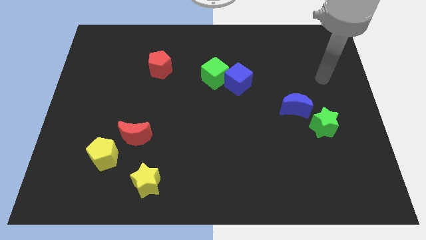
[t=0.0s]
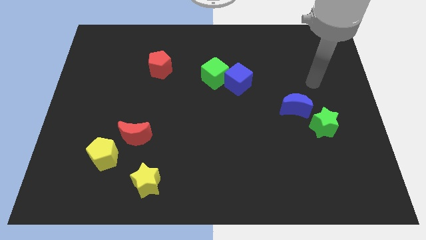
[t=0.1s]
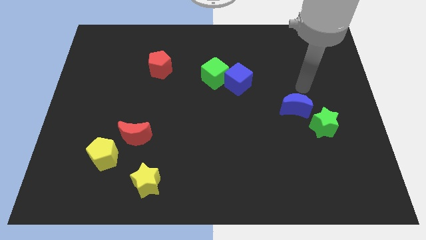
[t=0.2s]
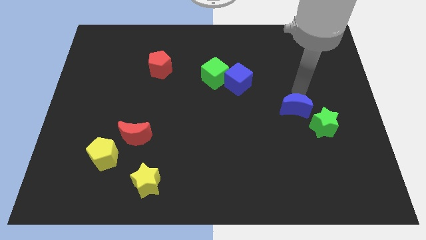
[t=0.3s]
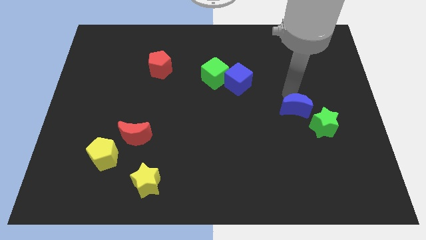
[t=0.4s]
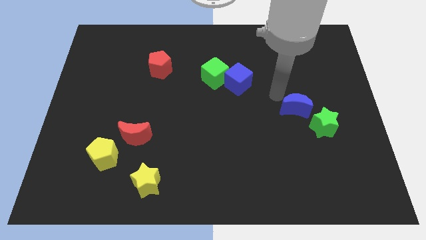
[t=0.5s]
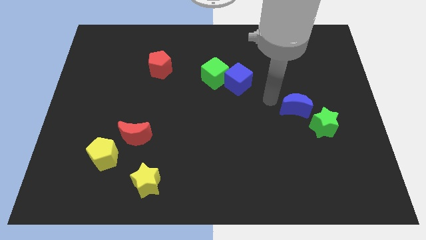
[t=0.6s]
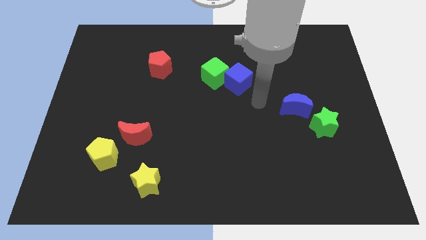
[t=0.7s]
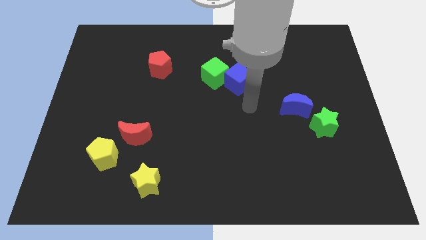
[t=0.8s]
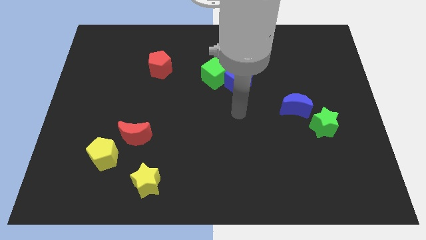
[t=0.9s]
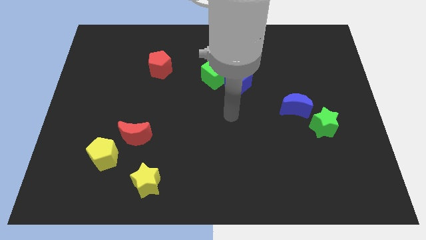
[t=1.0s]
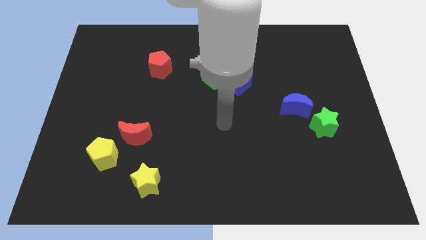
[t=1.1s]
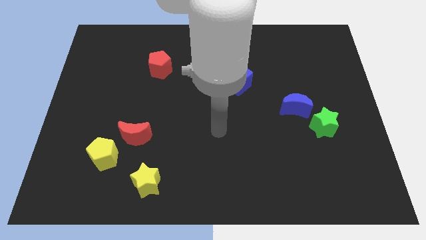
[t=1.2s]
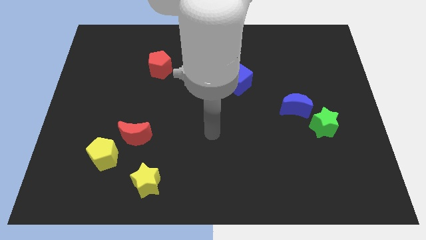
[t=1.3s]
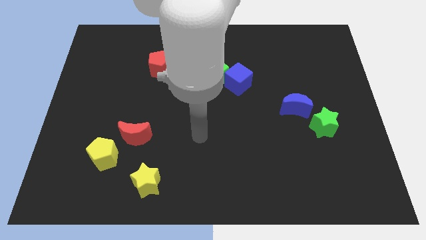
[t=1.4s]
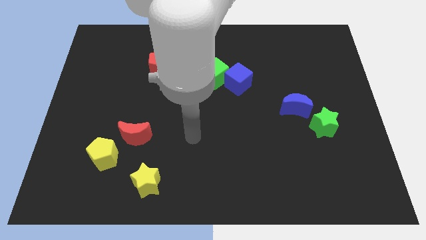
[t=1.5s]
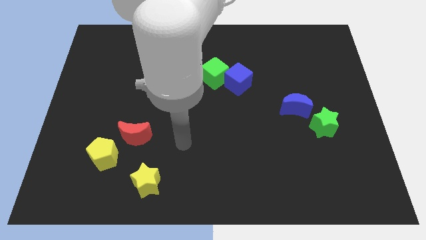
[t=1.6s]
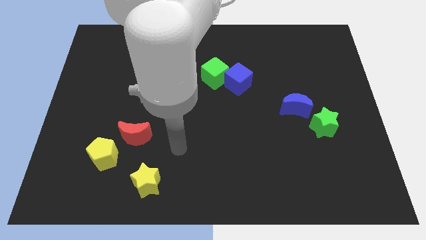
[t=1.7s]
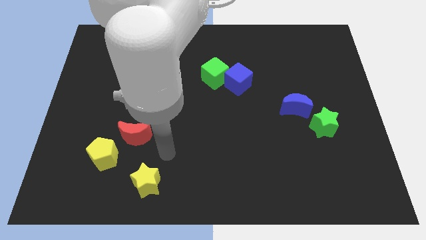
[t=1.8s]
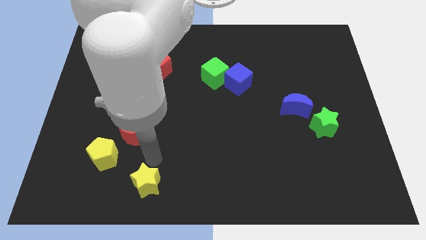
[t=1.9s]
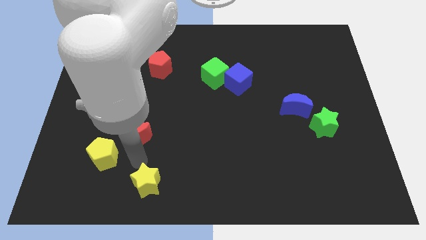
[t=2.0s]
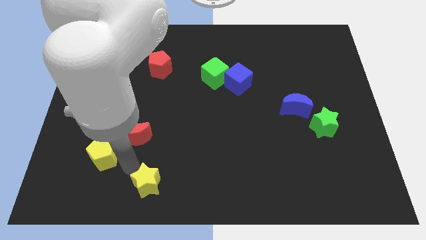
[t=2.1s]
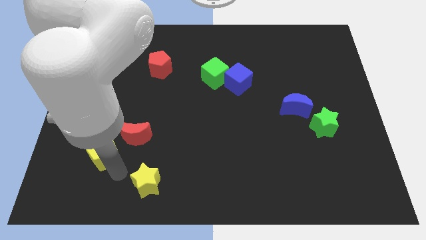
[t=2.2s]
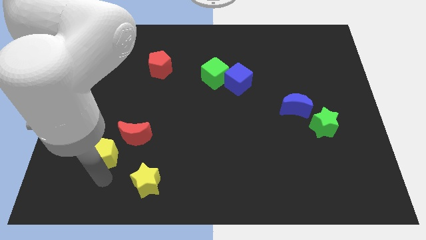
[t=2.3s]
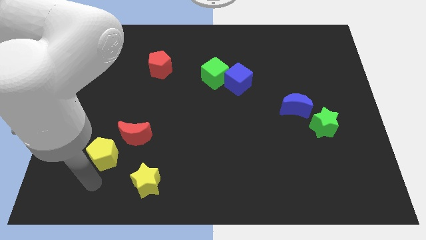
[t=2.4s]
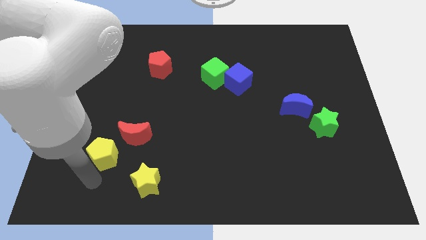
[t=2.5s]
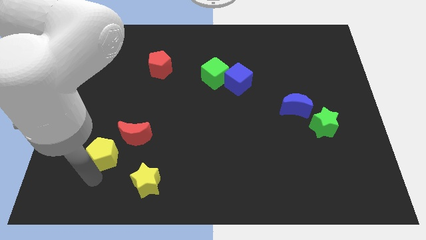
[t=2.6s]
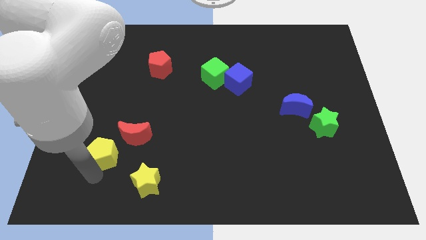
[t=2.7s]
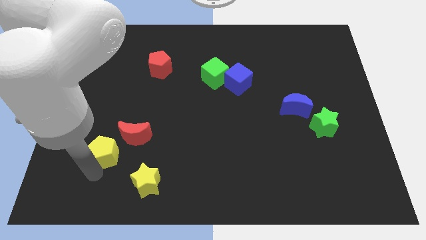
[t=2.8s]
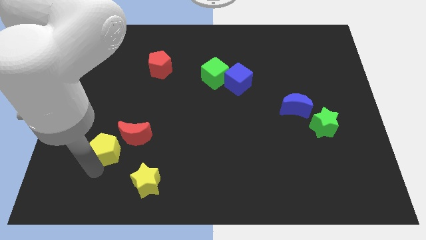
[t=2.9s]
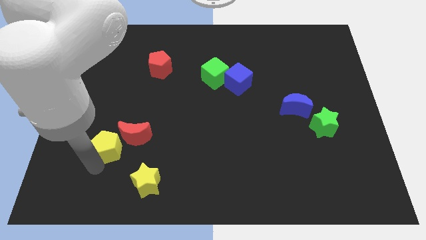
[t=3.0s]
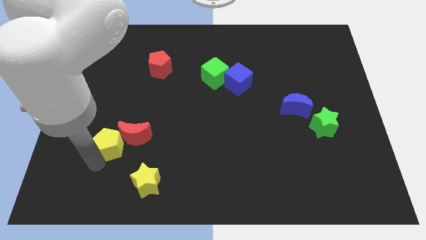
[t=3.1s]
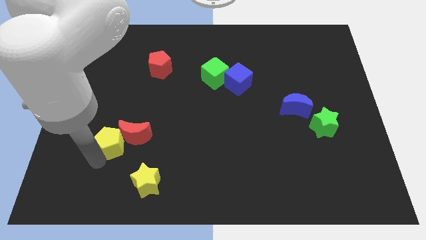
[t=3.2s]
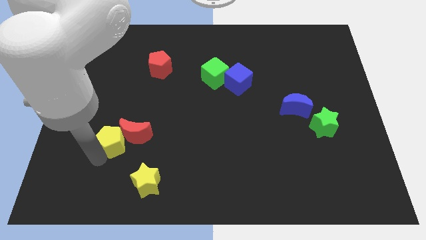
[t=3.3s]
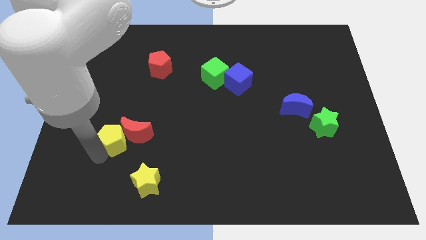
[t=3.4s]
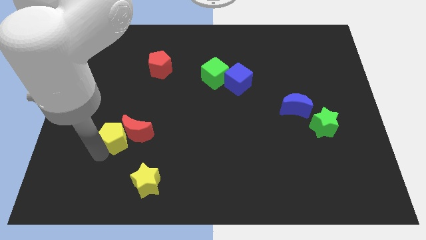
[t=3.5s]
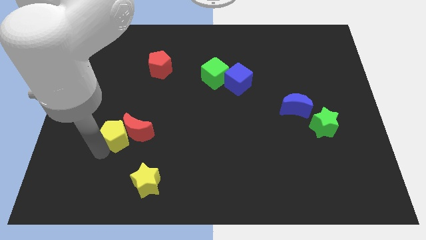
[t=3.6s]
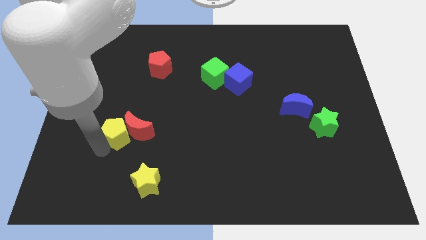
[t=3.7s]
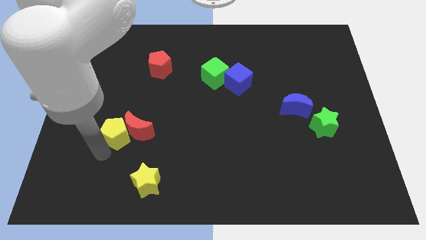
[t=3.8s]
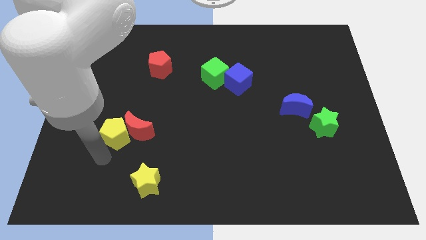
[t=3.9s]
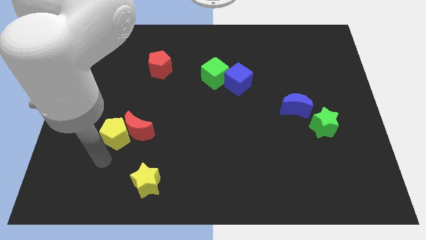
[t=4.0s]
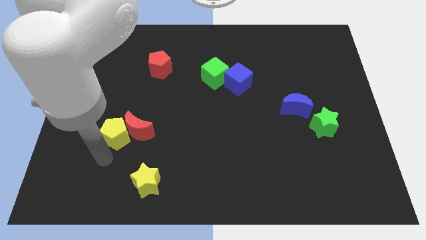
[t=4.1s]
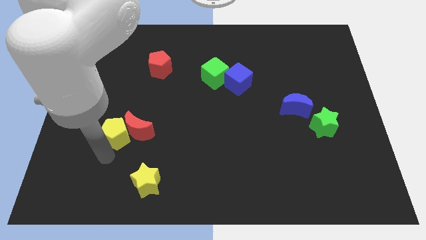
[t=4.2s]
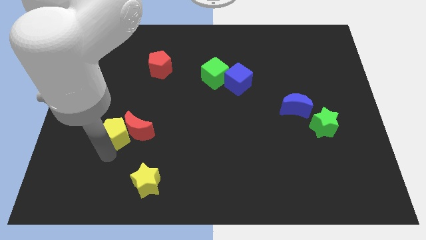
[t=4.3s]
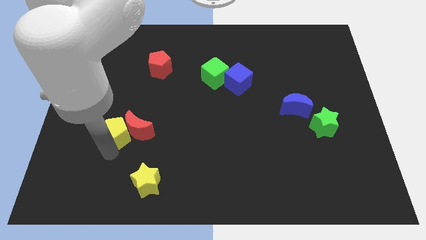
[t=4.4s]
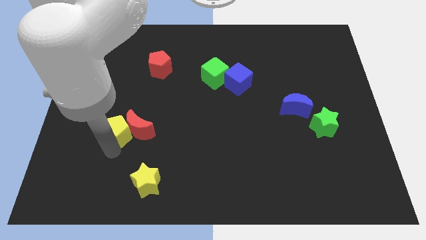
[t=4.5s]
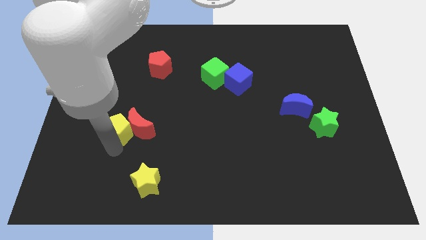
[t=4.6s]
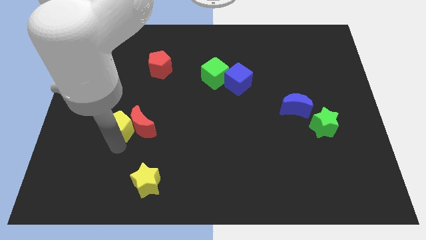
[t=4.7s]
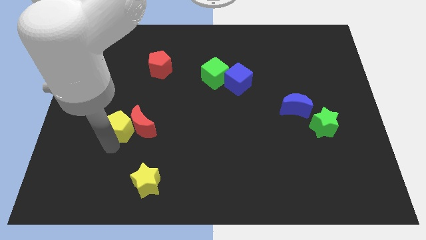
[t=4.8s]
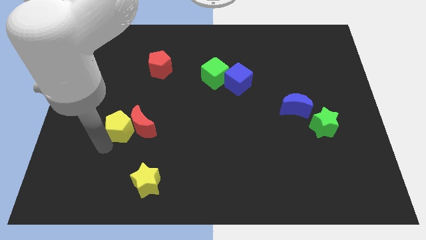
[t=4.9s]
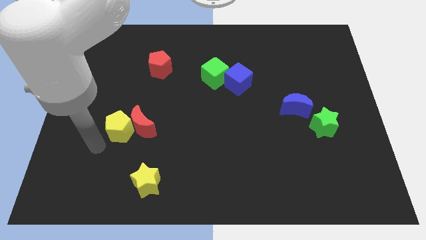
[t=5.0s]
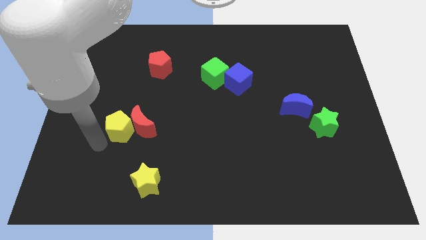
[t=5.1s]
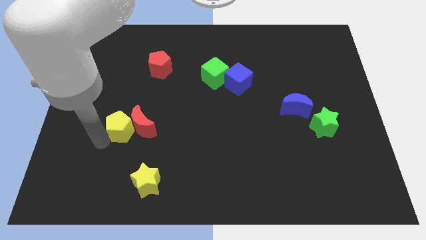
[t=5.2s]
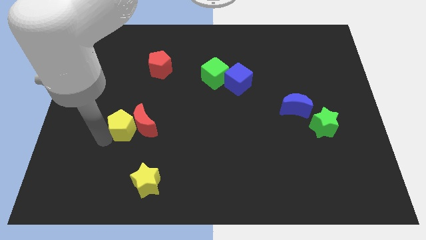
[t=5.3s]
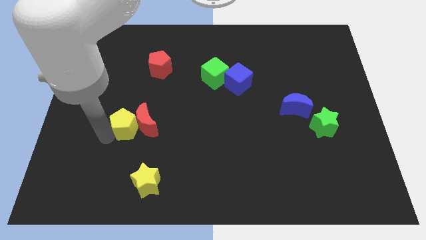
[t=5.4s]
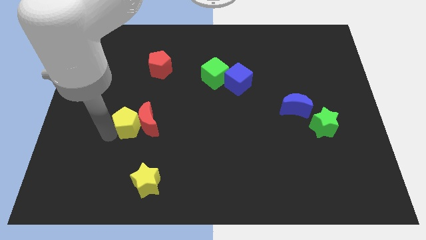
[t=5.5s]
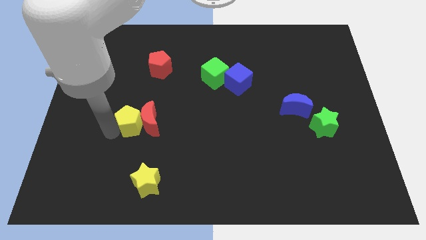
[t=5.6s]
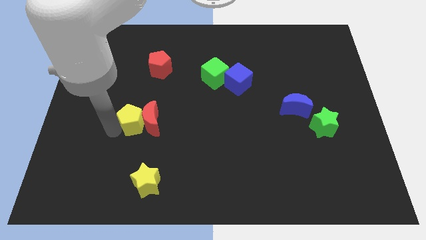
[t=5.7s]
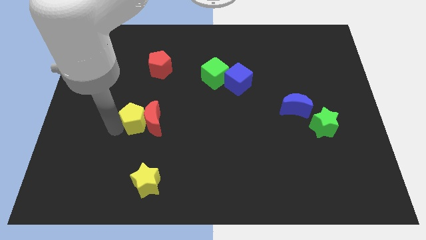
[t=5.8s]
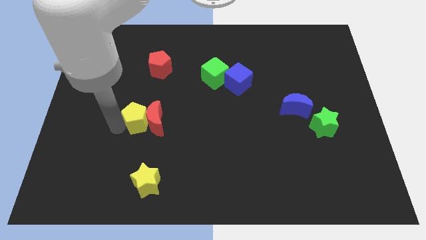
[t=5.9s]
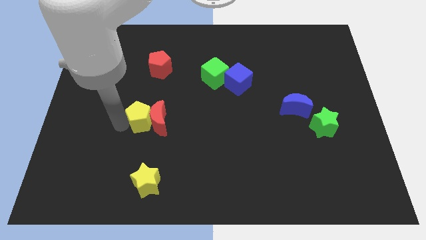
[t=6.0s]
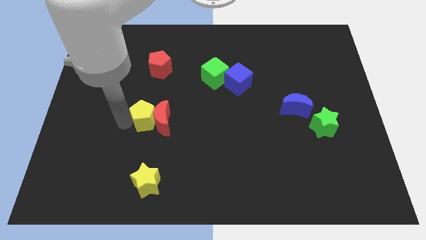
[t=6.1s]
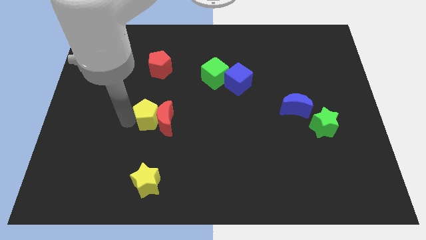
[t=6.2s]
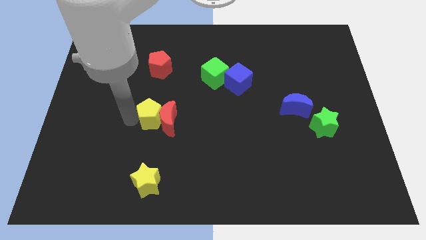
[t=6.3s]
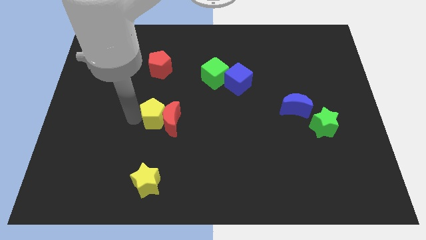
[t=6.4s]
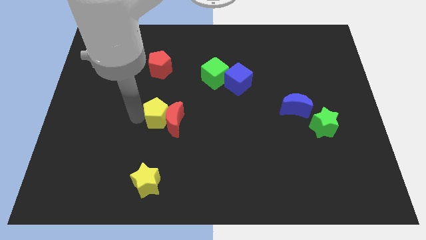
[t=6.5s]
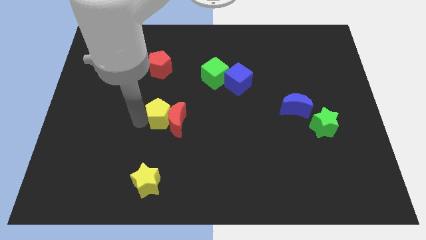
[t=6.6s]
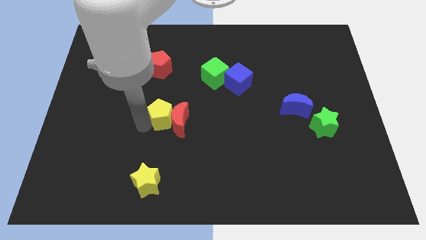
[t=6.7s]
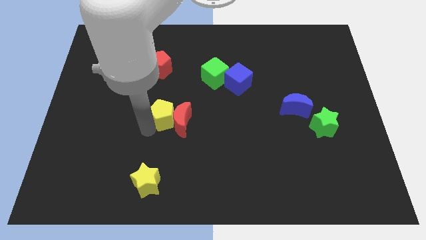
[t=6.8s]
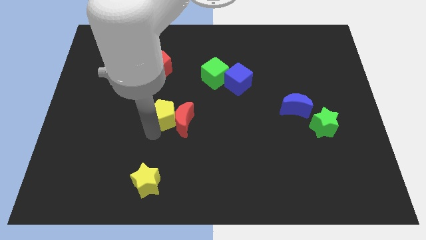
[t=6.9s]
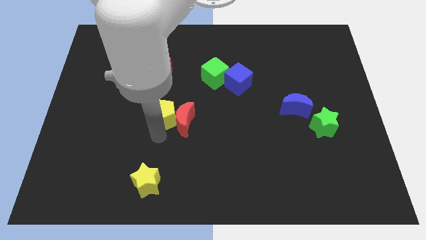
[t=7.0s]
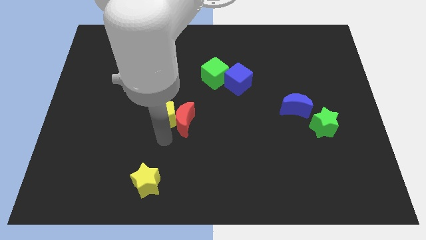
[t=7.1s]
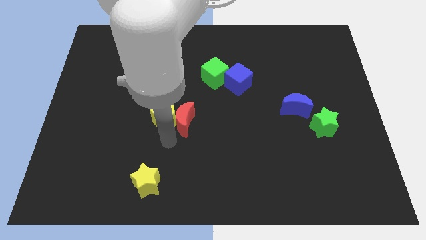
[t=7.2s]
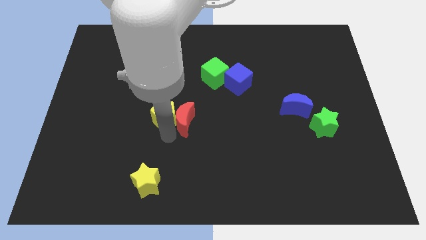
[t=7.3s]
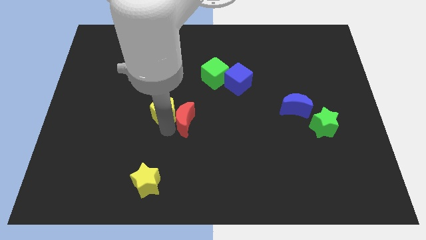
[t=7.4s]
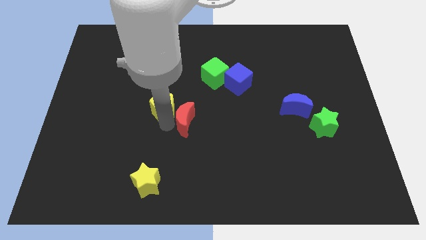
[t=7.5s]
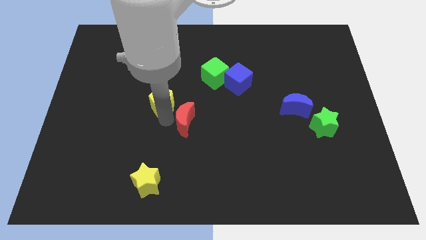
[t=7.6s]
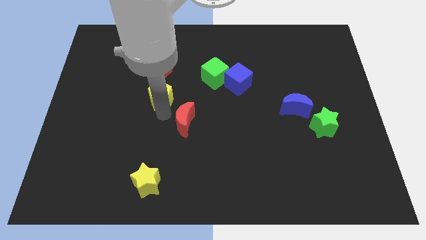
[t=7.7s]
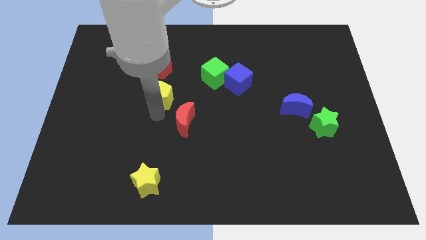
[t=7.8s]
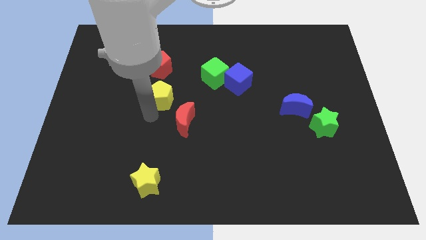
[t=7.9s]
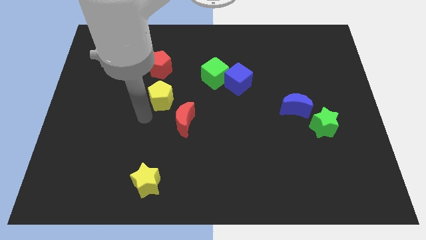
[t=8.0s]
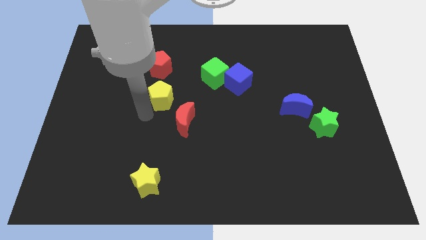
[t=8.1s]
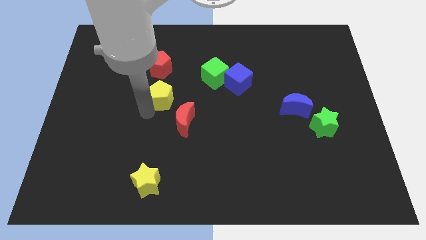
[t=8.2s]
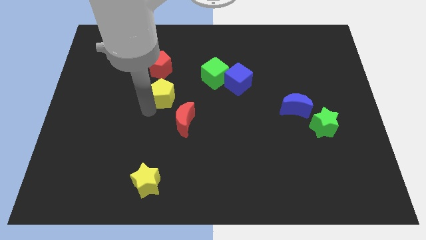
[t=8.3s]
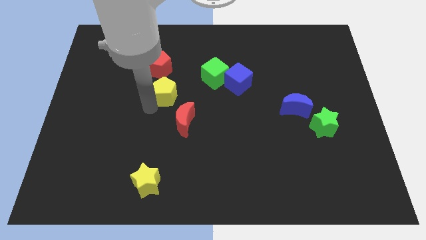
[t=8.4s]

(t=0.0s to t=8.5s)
move the yellow pentagon diagonally down and to the right of the red pentagon
